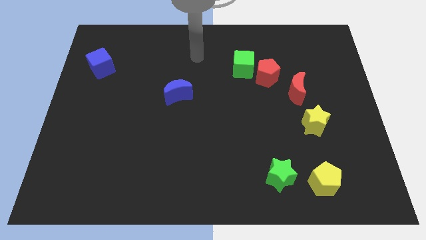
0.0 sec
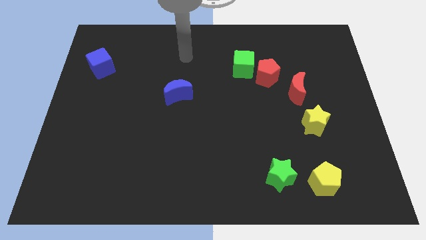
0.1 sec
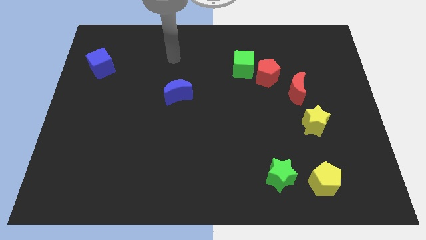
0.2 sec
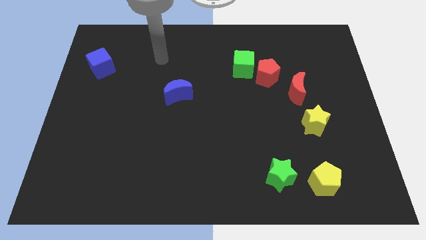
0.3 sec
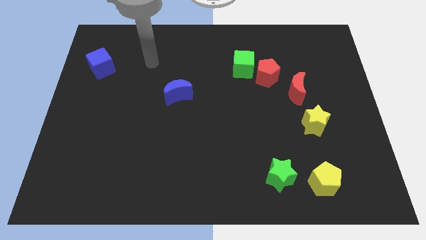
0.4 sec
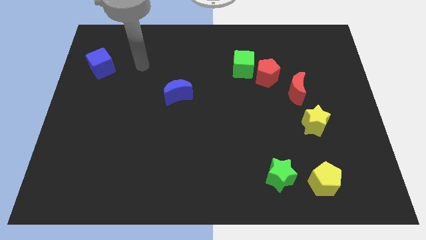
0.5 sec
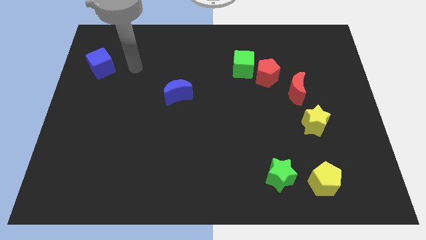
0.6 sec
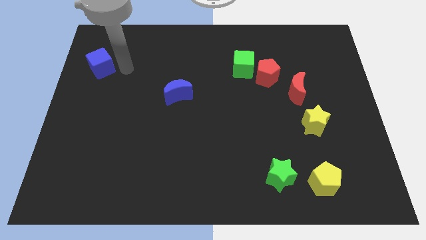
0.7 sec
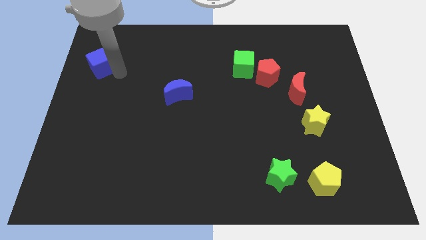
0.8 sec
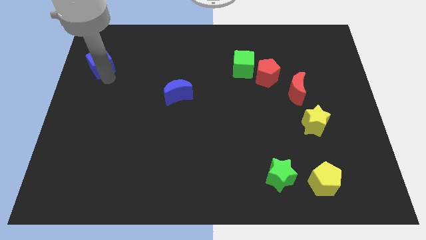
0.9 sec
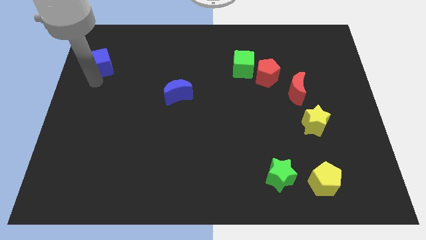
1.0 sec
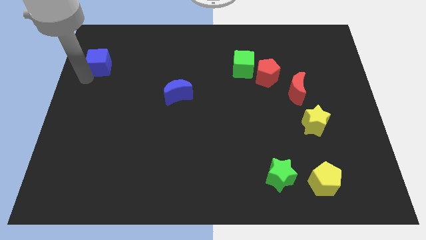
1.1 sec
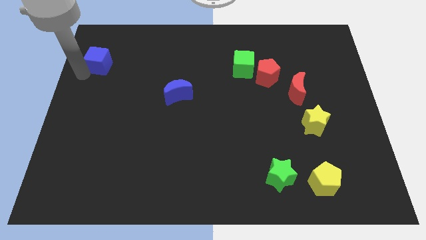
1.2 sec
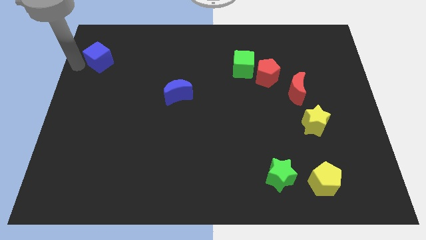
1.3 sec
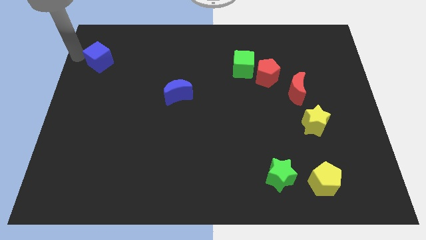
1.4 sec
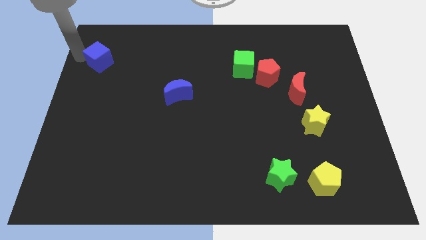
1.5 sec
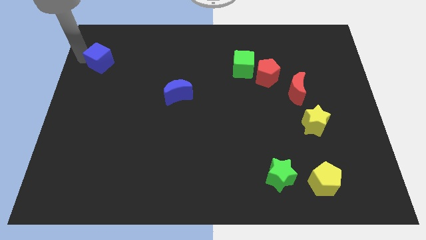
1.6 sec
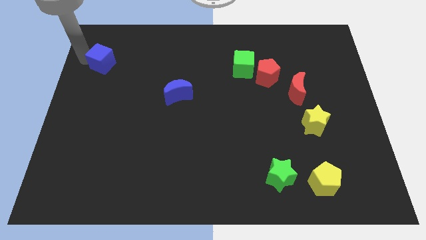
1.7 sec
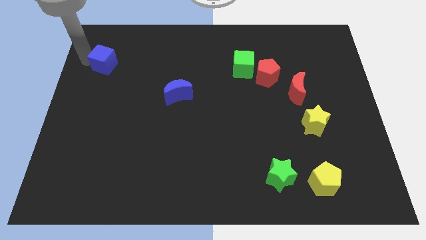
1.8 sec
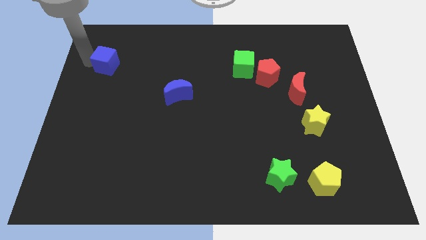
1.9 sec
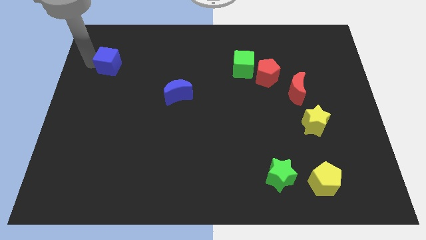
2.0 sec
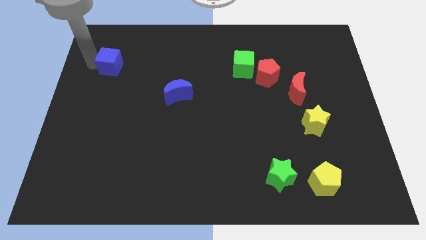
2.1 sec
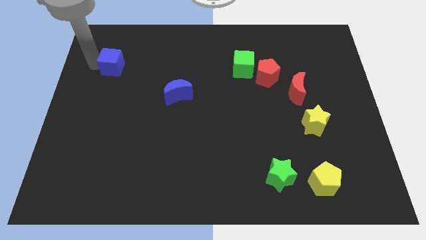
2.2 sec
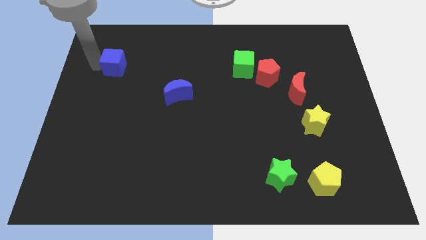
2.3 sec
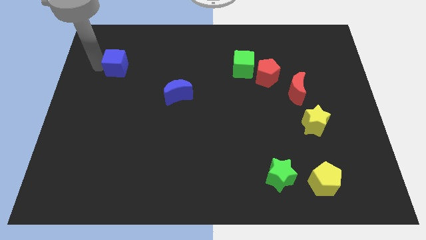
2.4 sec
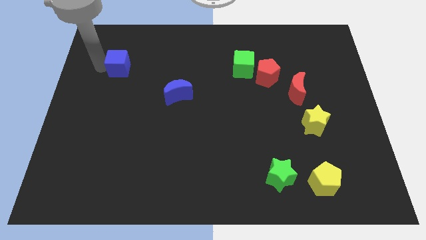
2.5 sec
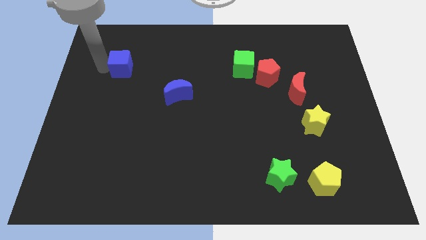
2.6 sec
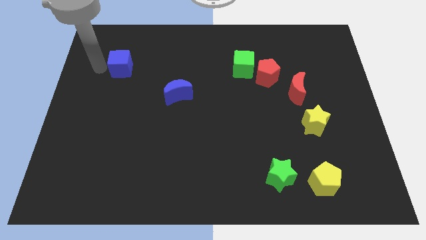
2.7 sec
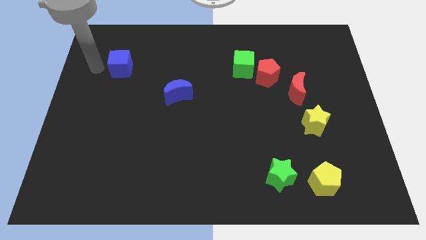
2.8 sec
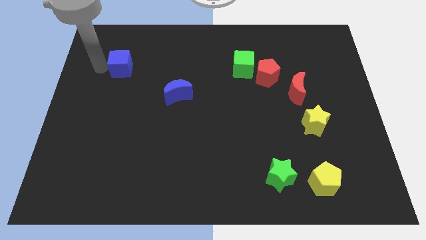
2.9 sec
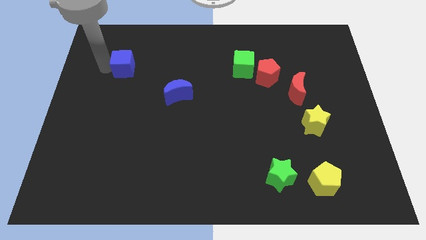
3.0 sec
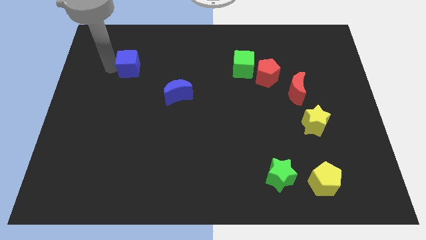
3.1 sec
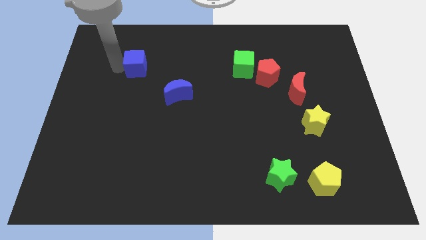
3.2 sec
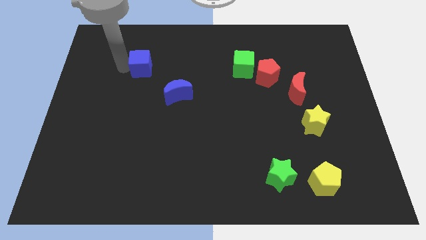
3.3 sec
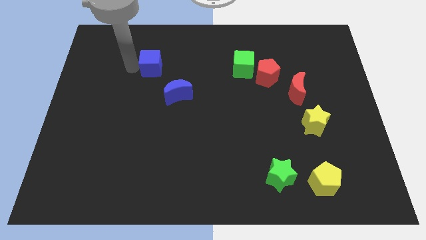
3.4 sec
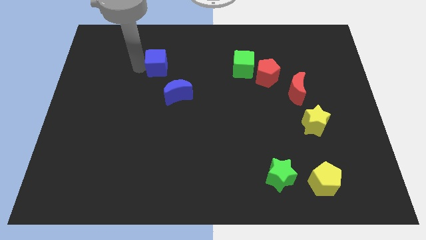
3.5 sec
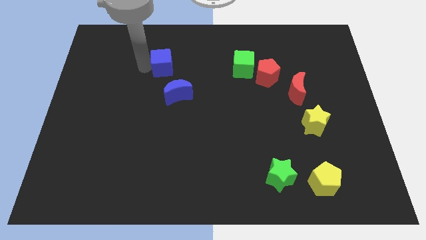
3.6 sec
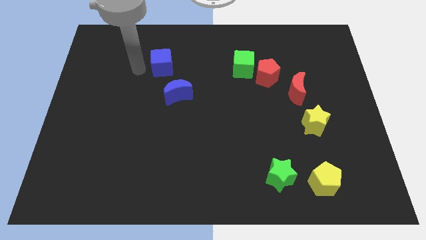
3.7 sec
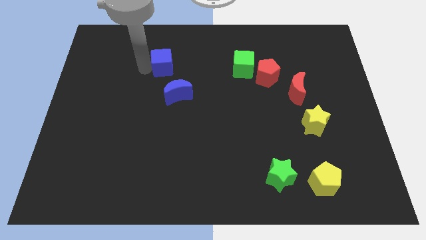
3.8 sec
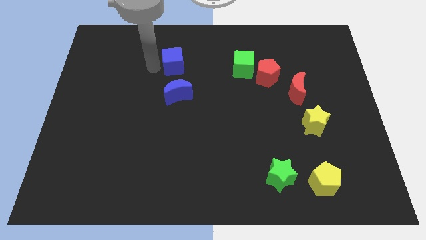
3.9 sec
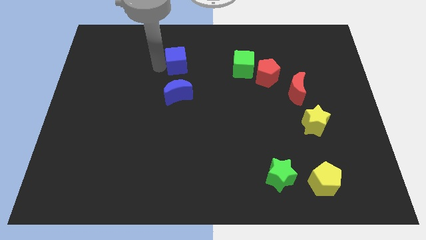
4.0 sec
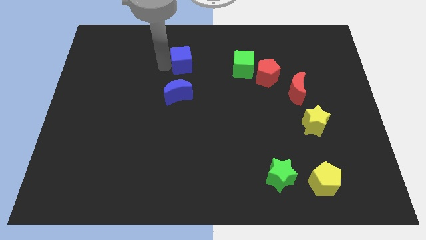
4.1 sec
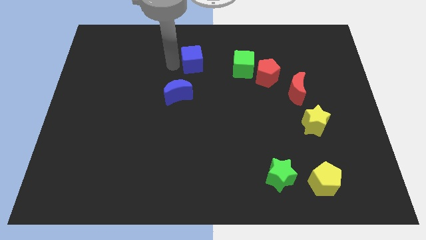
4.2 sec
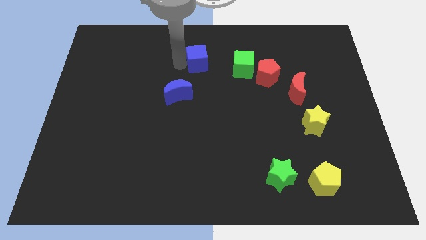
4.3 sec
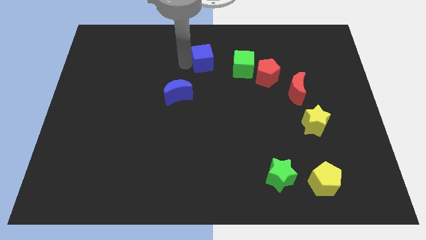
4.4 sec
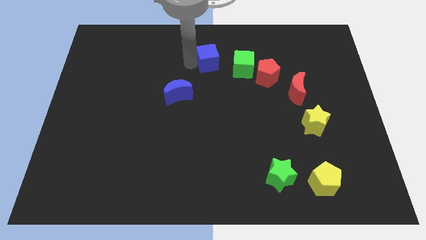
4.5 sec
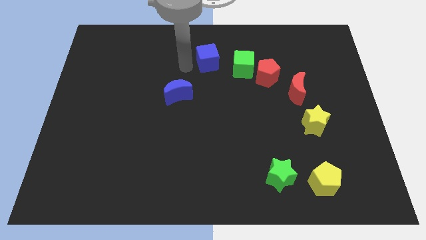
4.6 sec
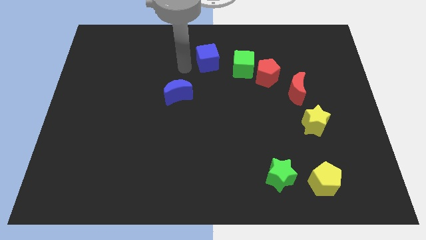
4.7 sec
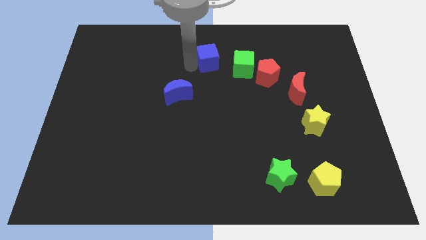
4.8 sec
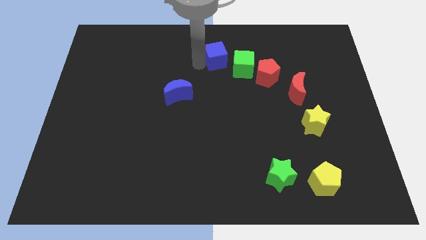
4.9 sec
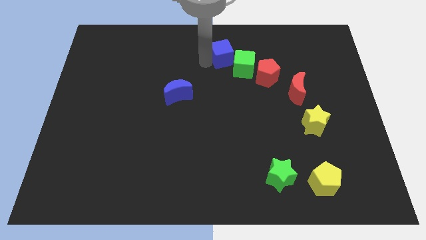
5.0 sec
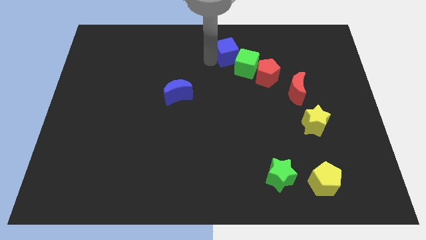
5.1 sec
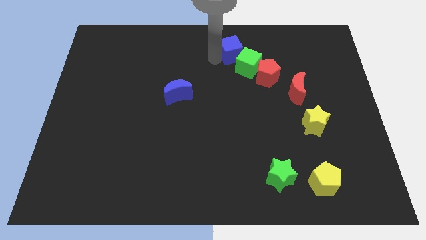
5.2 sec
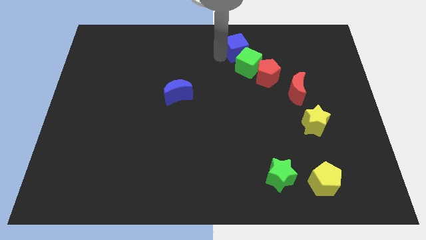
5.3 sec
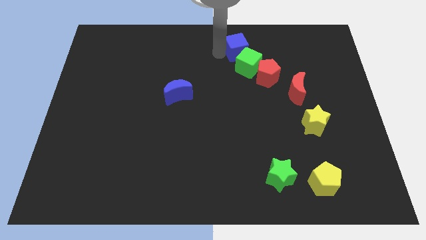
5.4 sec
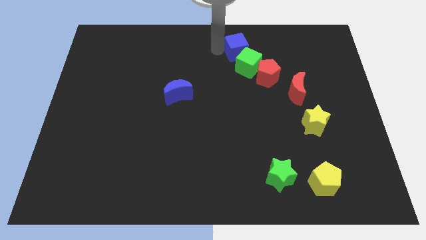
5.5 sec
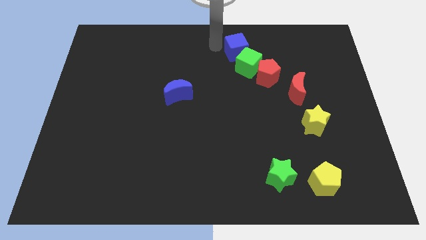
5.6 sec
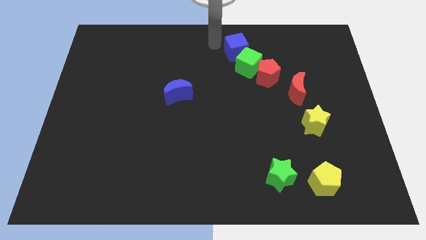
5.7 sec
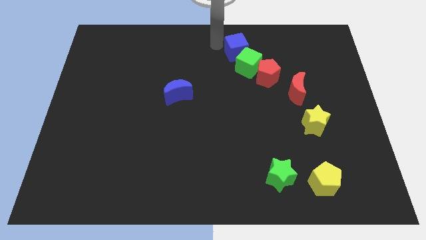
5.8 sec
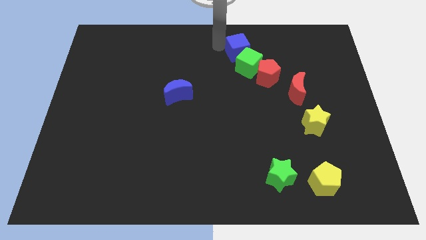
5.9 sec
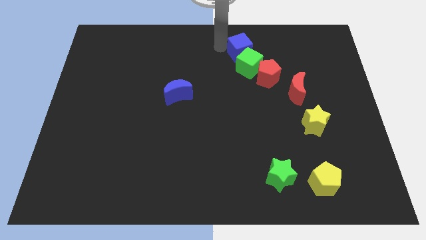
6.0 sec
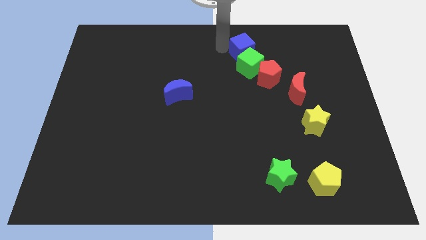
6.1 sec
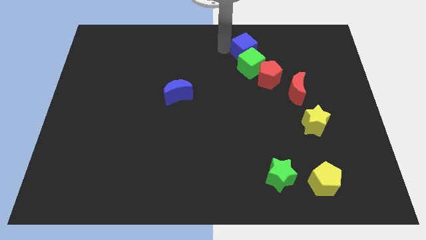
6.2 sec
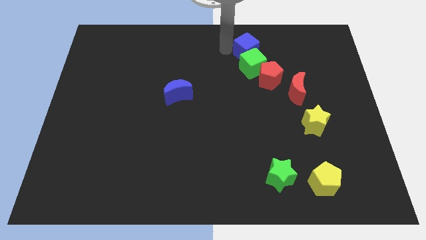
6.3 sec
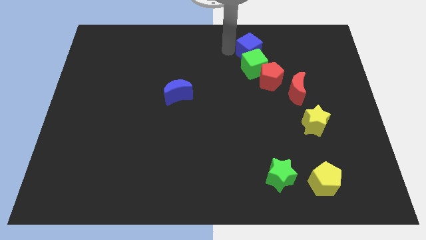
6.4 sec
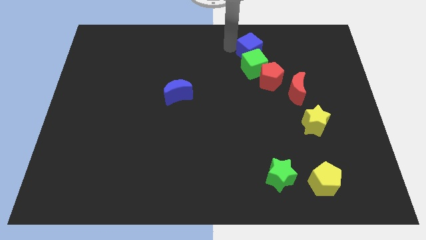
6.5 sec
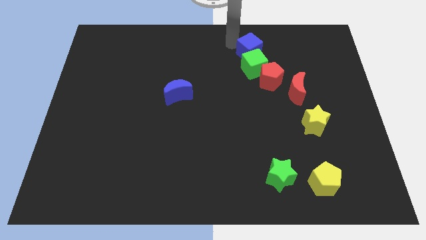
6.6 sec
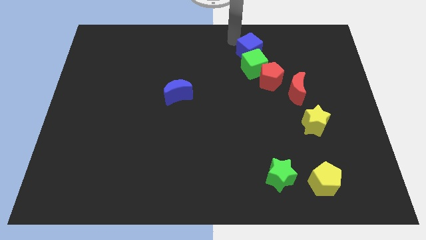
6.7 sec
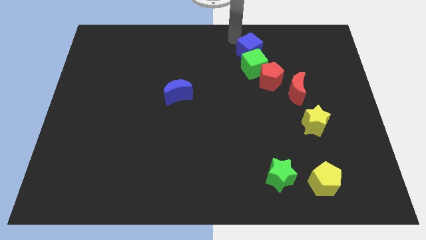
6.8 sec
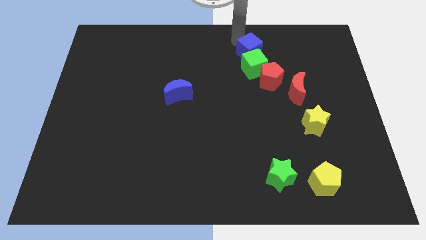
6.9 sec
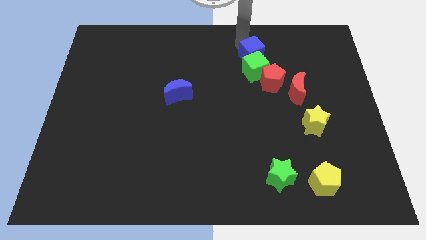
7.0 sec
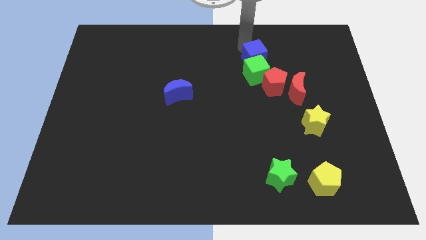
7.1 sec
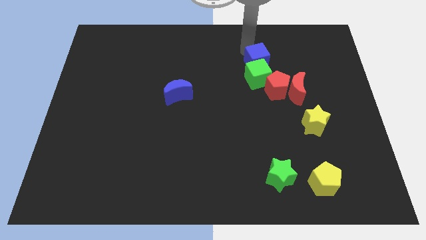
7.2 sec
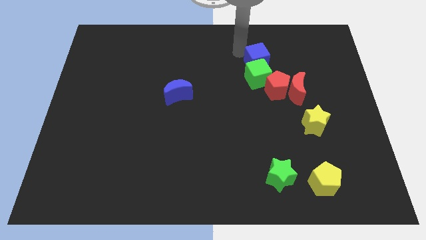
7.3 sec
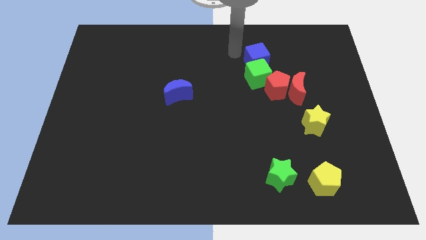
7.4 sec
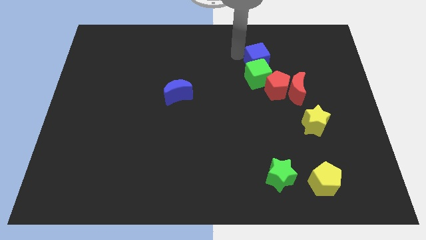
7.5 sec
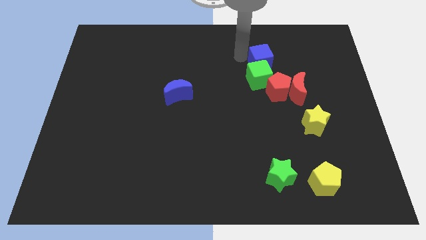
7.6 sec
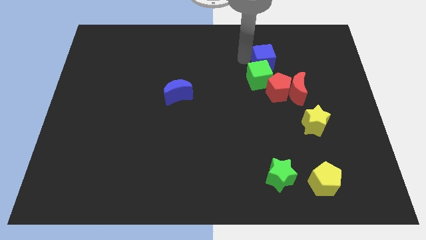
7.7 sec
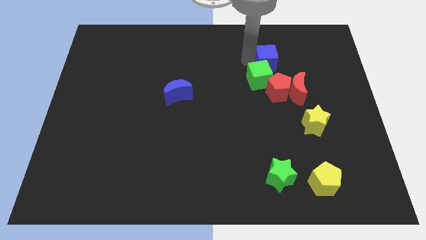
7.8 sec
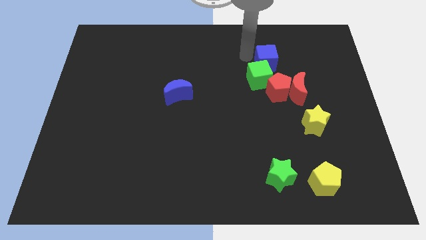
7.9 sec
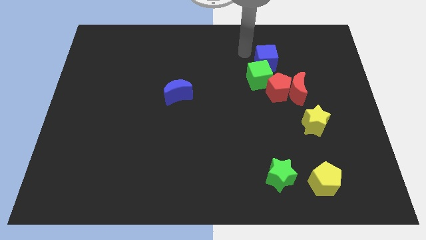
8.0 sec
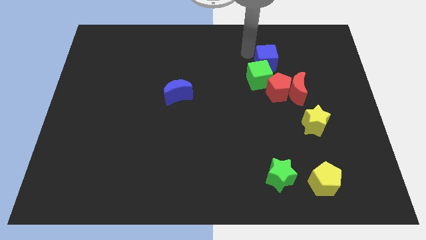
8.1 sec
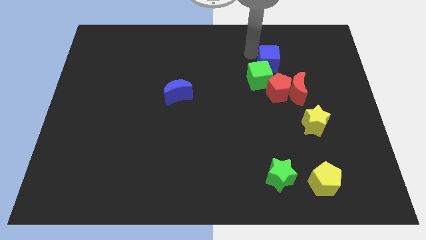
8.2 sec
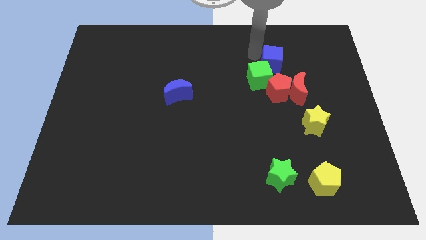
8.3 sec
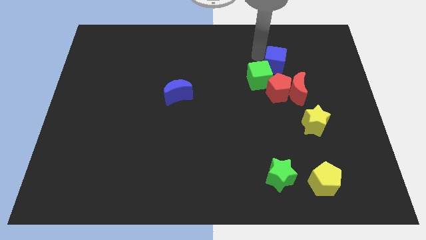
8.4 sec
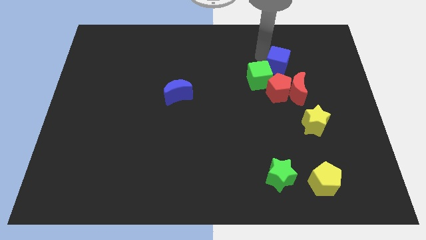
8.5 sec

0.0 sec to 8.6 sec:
slide the blue cube to the right of the green cube
